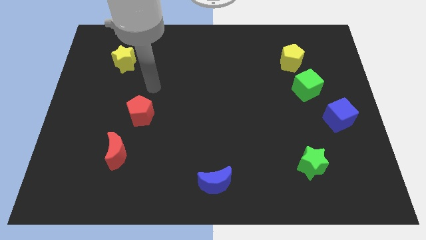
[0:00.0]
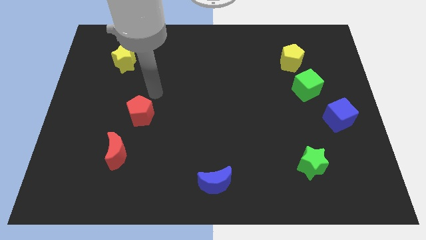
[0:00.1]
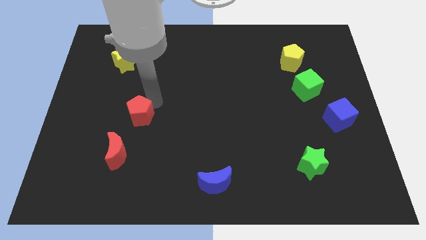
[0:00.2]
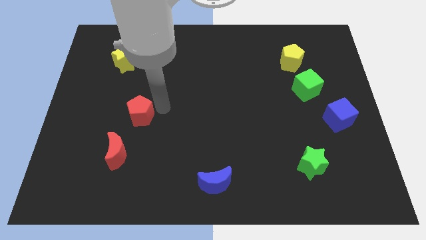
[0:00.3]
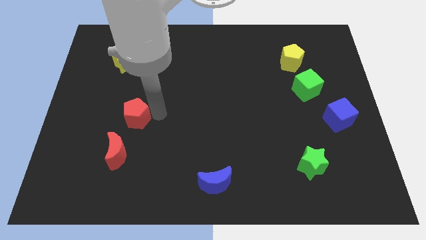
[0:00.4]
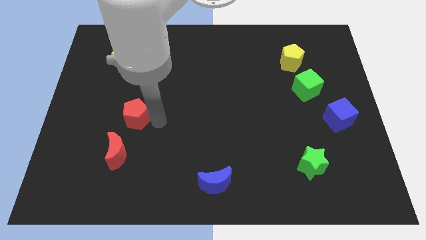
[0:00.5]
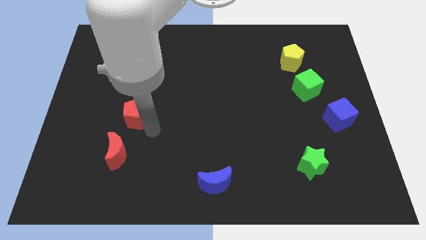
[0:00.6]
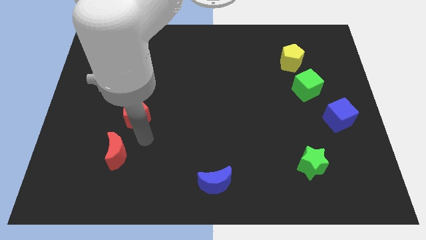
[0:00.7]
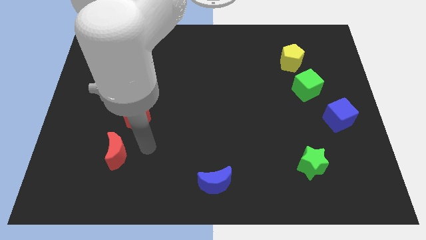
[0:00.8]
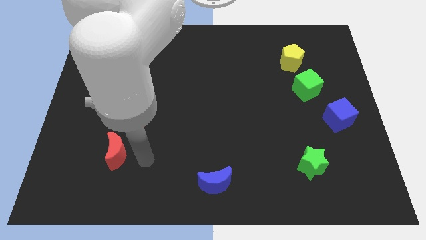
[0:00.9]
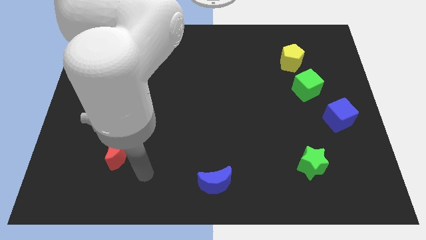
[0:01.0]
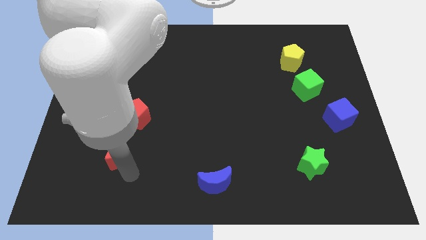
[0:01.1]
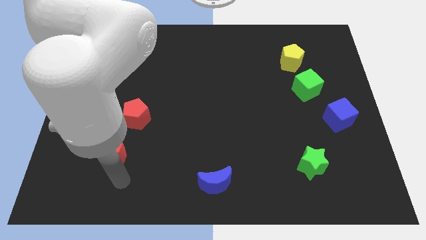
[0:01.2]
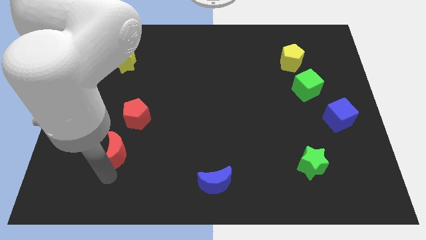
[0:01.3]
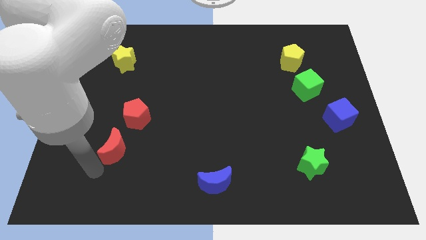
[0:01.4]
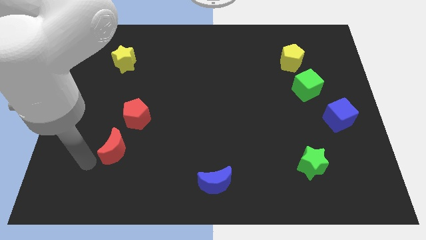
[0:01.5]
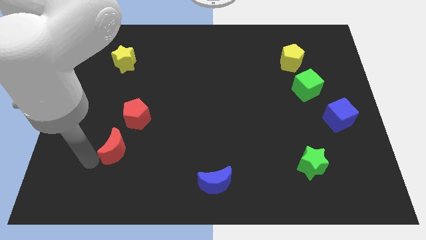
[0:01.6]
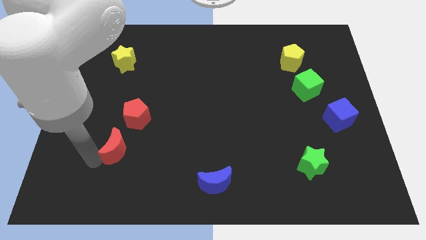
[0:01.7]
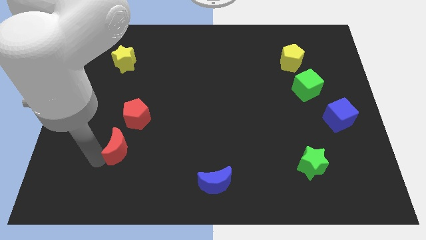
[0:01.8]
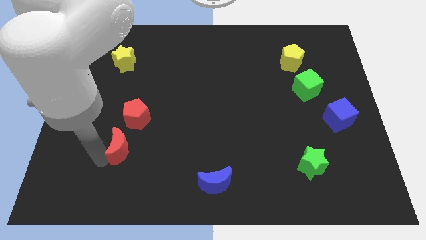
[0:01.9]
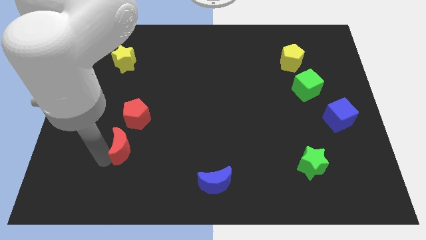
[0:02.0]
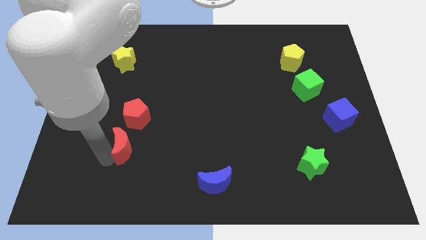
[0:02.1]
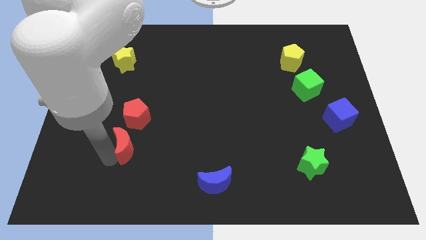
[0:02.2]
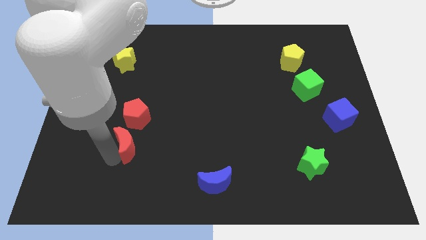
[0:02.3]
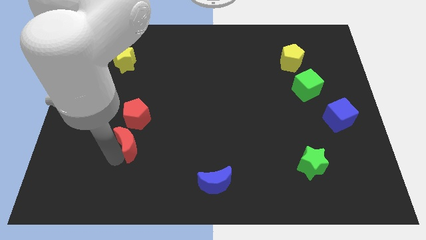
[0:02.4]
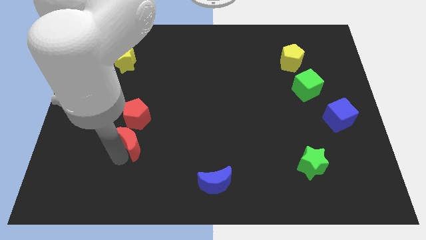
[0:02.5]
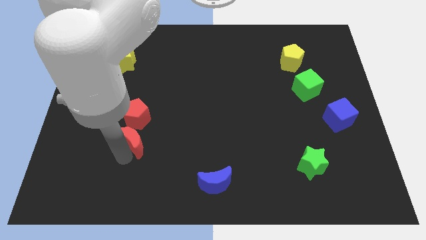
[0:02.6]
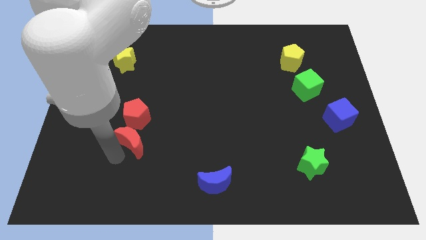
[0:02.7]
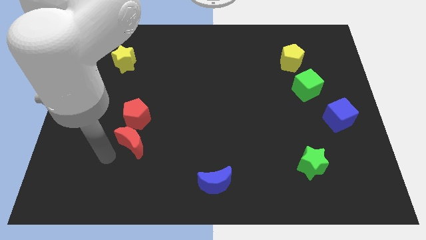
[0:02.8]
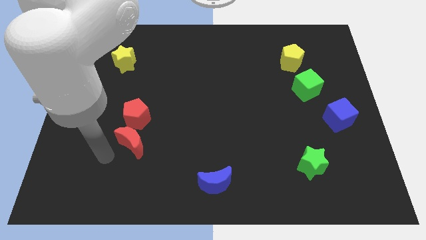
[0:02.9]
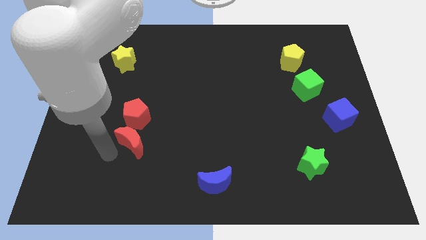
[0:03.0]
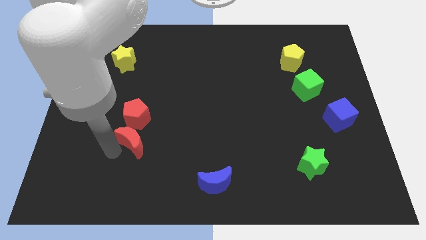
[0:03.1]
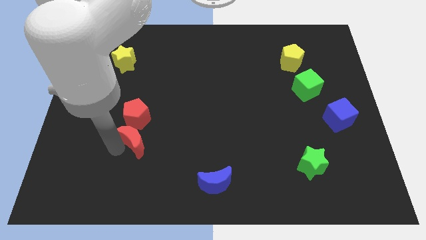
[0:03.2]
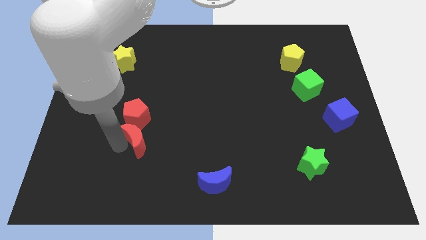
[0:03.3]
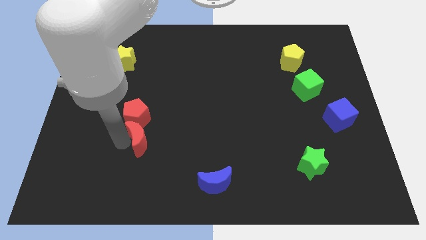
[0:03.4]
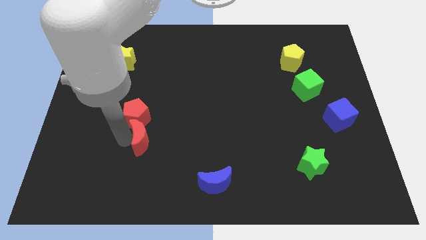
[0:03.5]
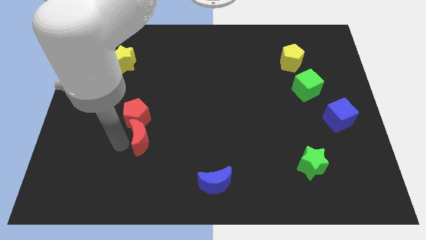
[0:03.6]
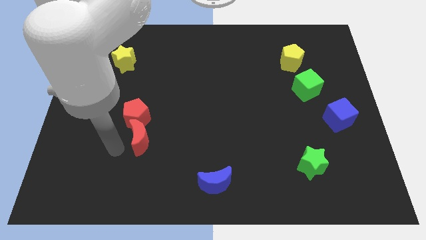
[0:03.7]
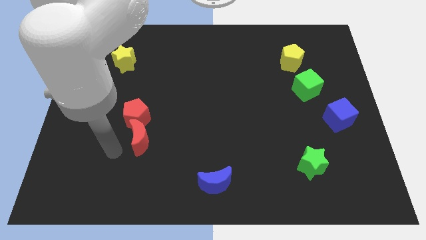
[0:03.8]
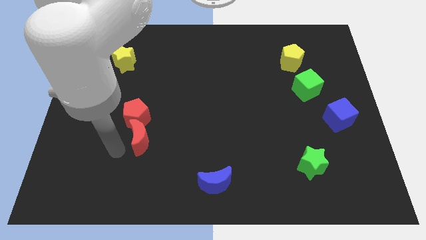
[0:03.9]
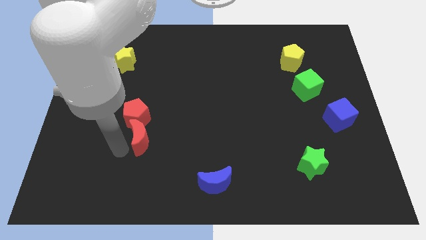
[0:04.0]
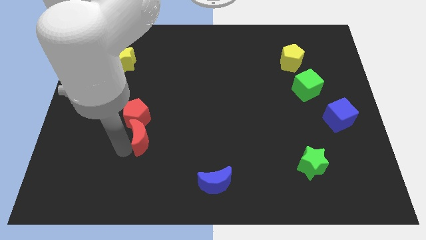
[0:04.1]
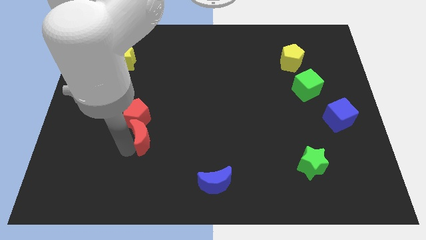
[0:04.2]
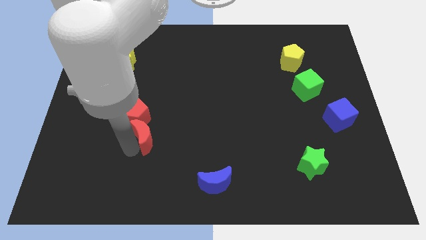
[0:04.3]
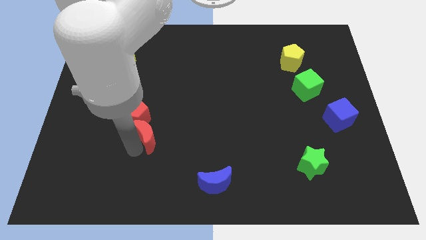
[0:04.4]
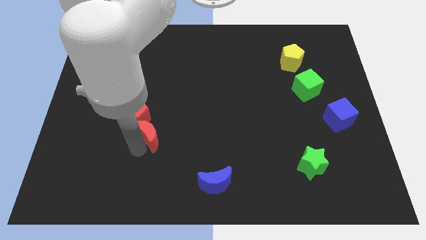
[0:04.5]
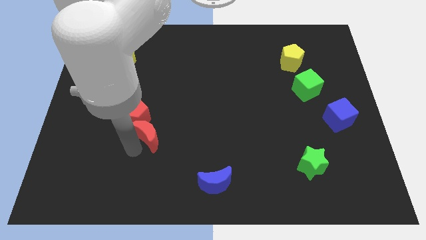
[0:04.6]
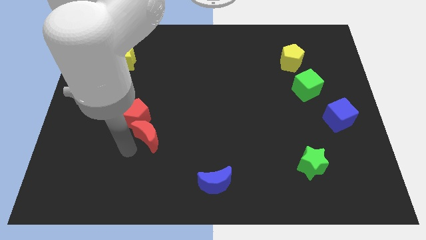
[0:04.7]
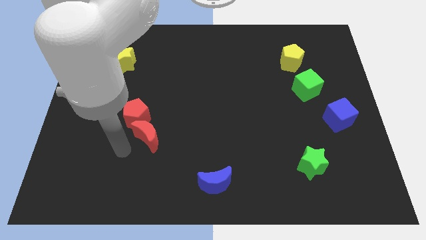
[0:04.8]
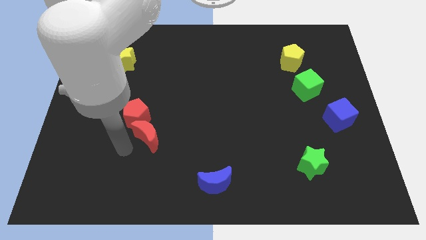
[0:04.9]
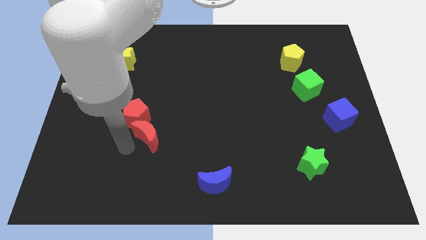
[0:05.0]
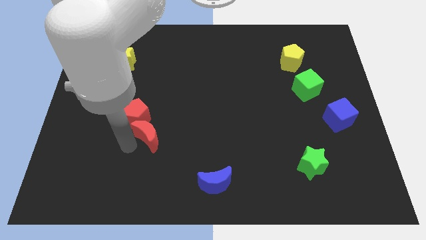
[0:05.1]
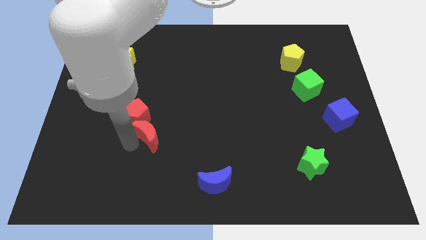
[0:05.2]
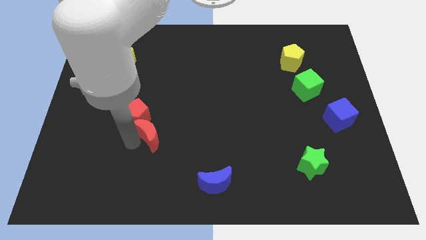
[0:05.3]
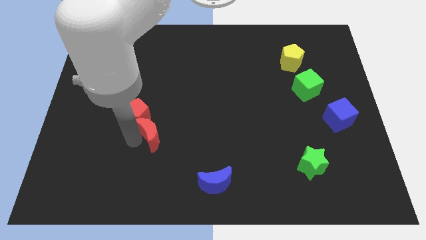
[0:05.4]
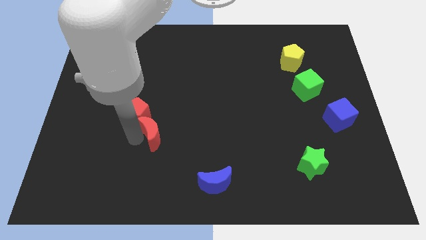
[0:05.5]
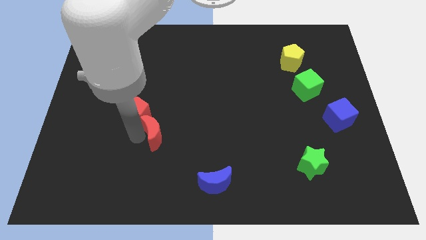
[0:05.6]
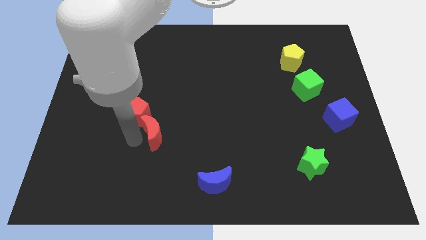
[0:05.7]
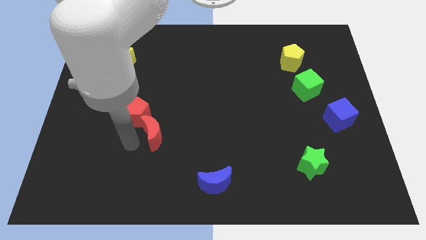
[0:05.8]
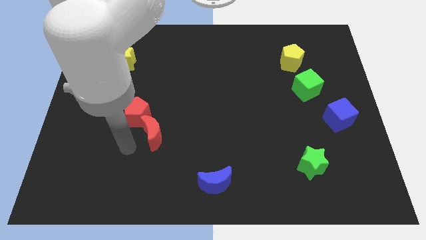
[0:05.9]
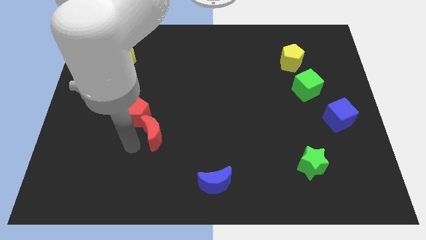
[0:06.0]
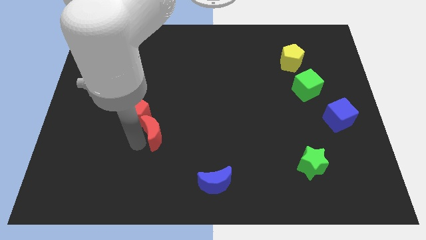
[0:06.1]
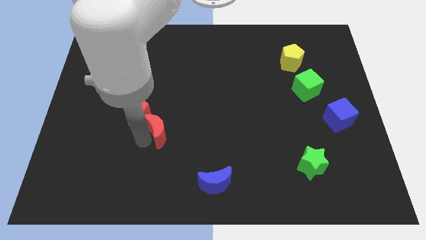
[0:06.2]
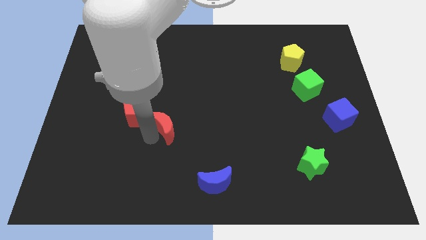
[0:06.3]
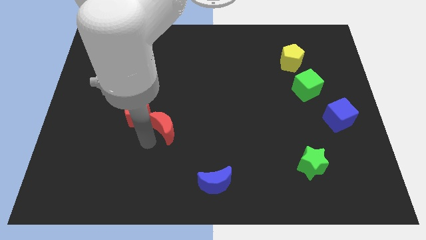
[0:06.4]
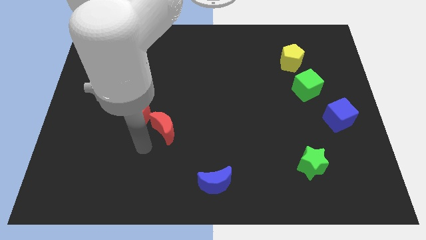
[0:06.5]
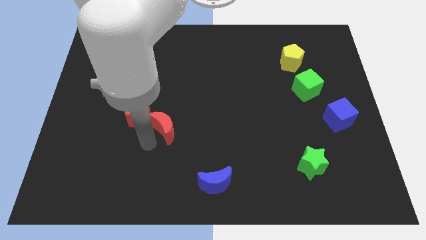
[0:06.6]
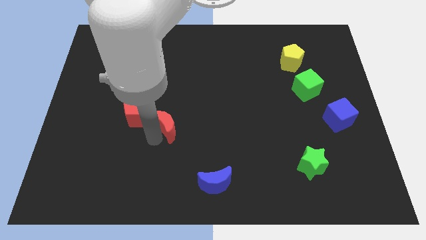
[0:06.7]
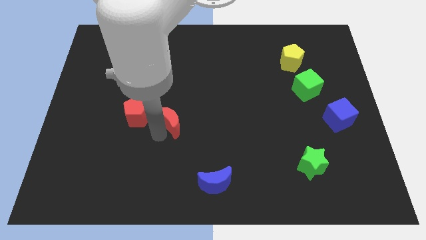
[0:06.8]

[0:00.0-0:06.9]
slide the red moon to the middle
